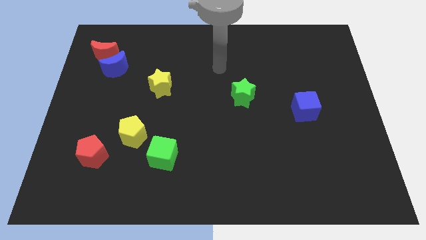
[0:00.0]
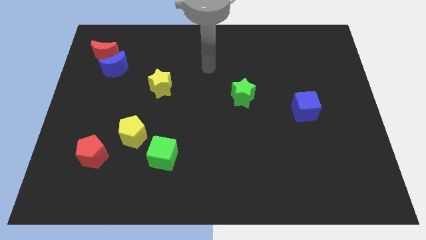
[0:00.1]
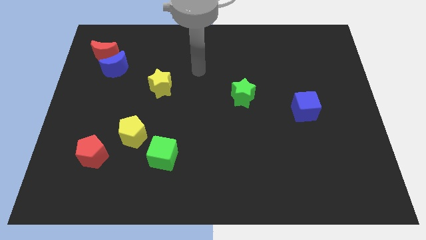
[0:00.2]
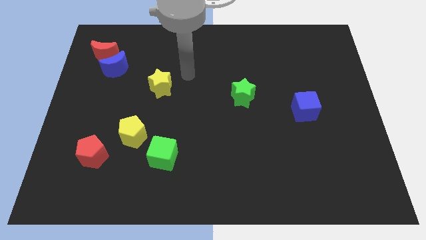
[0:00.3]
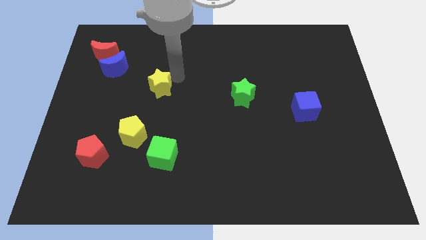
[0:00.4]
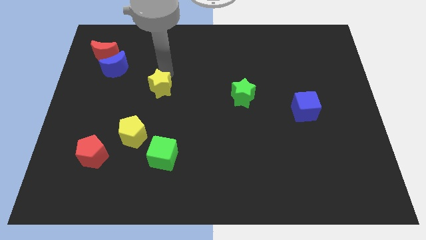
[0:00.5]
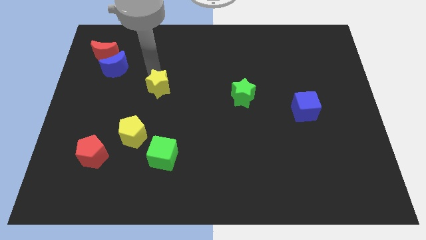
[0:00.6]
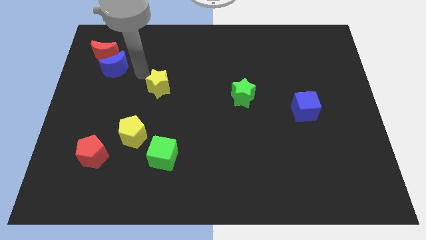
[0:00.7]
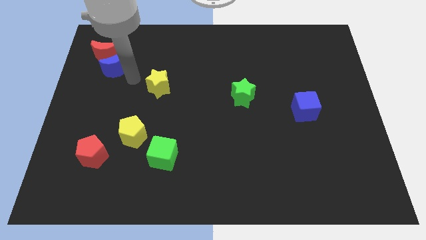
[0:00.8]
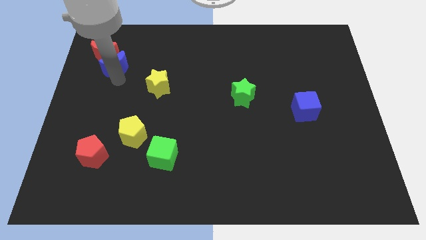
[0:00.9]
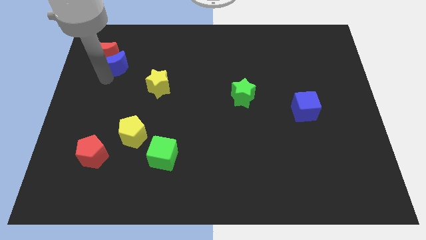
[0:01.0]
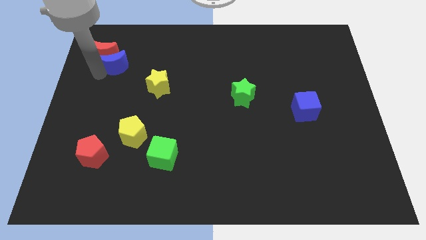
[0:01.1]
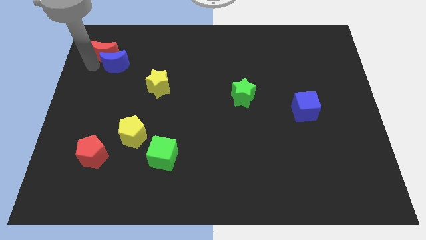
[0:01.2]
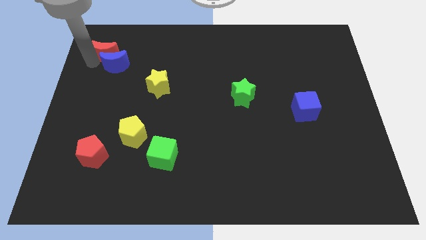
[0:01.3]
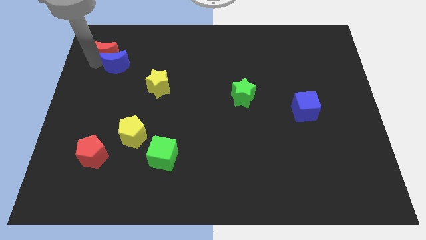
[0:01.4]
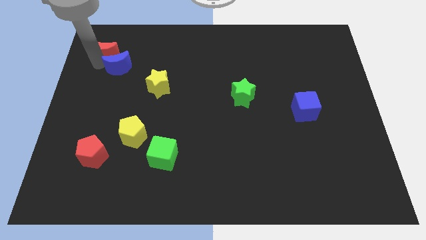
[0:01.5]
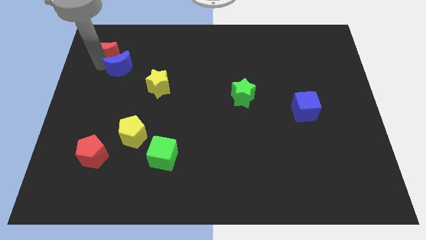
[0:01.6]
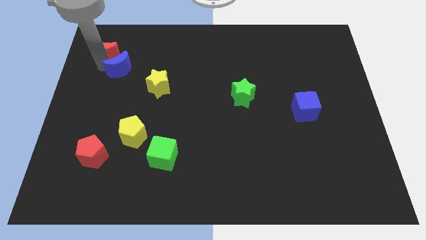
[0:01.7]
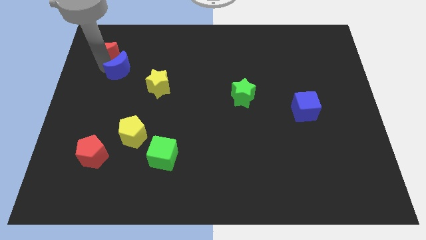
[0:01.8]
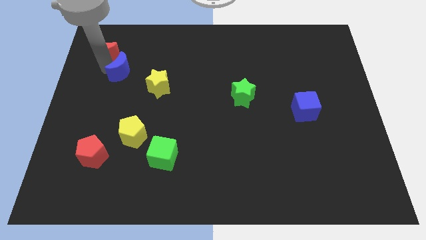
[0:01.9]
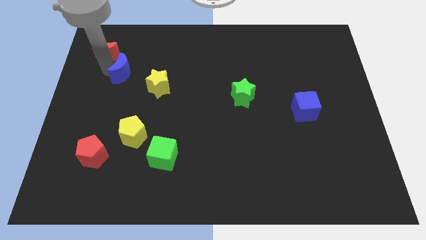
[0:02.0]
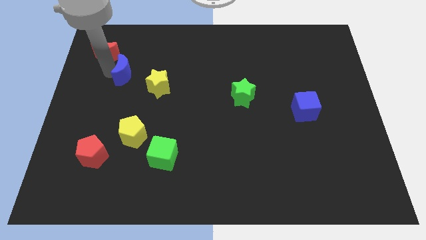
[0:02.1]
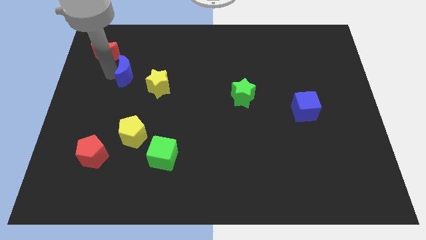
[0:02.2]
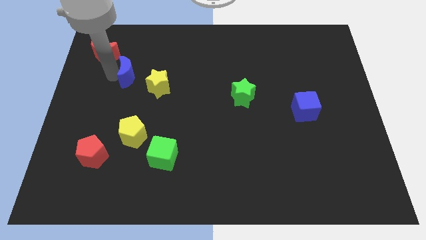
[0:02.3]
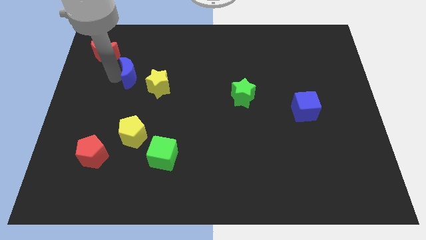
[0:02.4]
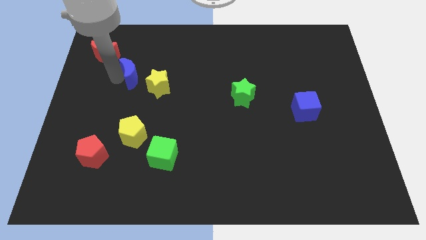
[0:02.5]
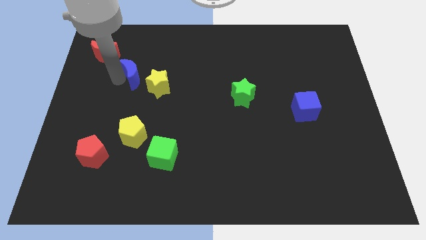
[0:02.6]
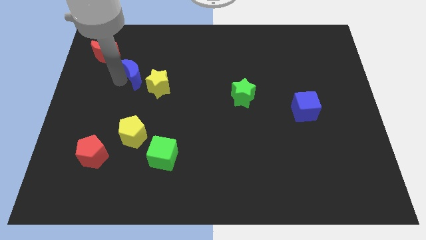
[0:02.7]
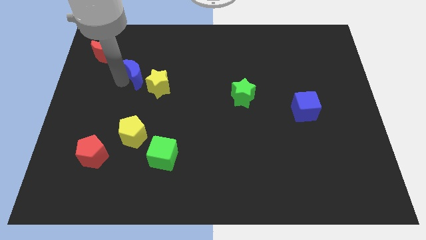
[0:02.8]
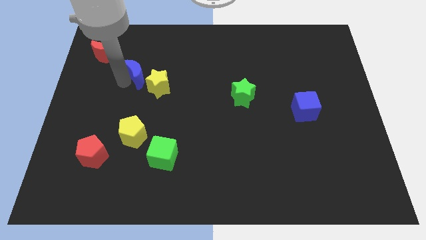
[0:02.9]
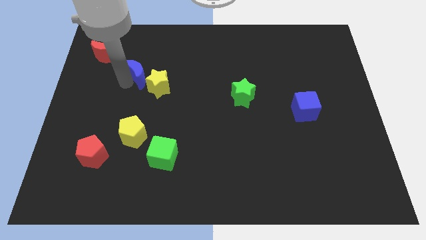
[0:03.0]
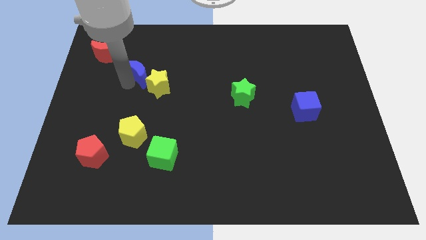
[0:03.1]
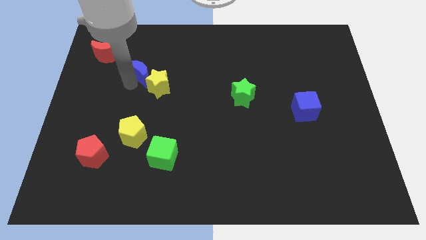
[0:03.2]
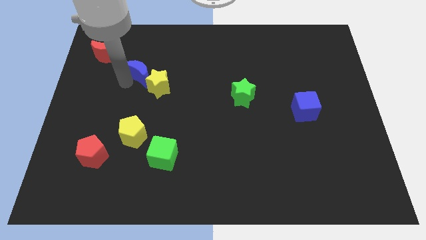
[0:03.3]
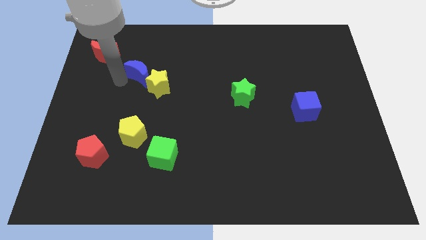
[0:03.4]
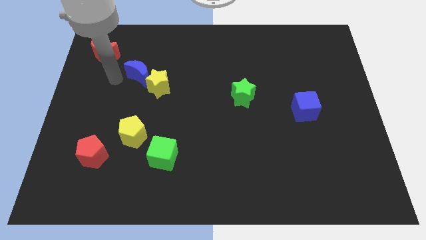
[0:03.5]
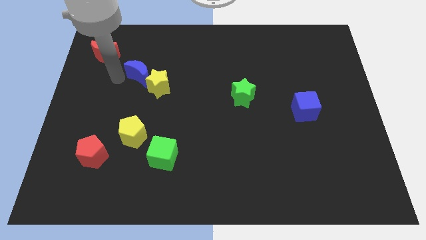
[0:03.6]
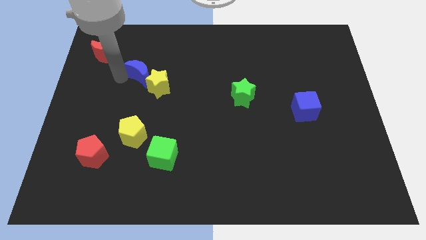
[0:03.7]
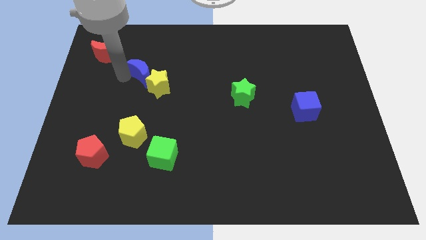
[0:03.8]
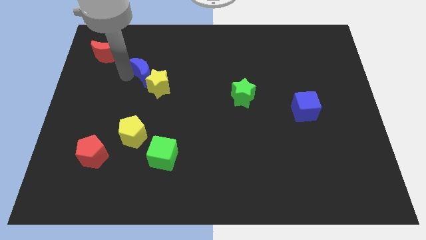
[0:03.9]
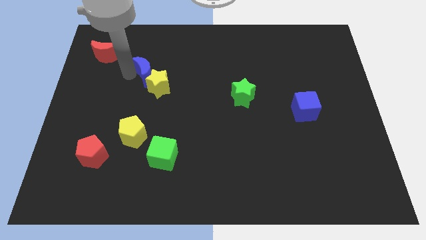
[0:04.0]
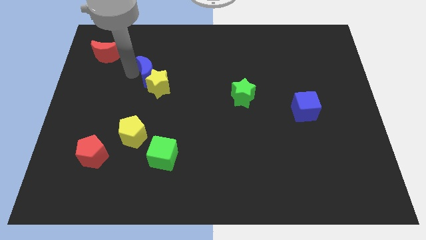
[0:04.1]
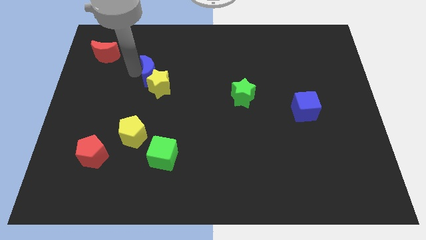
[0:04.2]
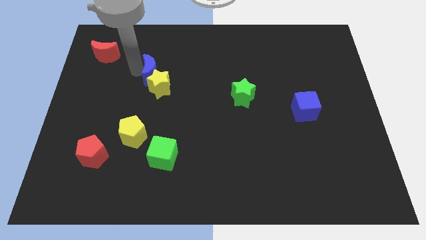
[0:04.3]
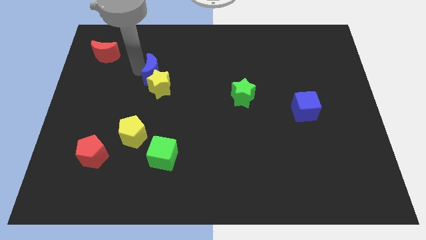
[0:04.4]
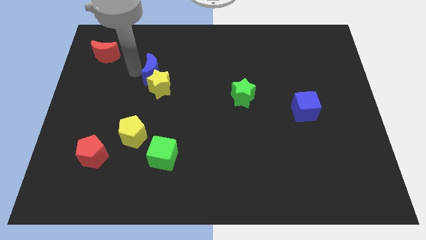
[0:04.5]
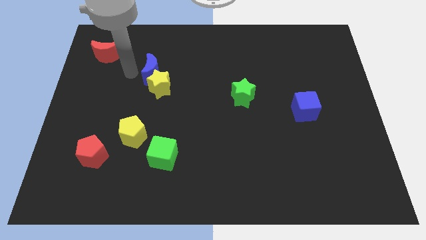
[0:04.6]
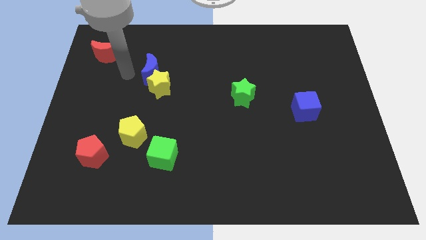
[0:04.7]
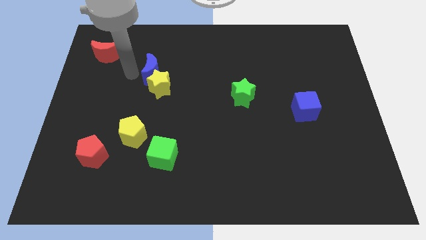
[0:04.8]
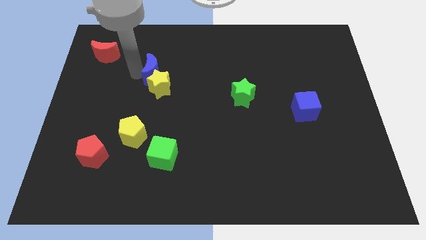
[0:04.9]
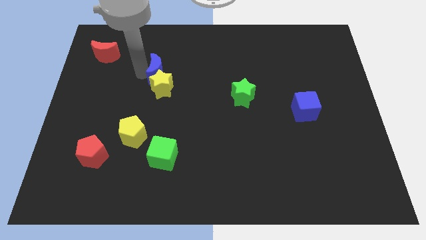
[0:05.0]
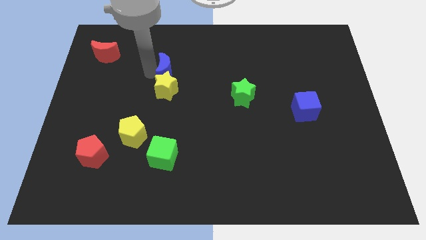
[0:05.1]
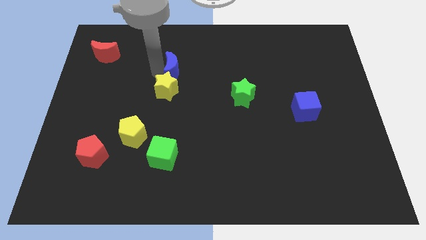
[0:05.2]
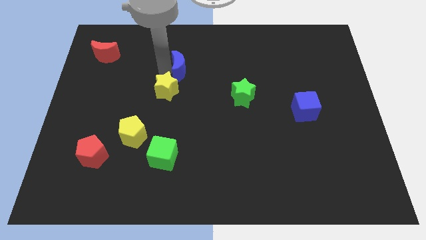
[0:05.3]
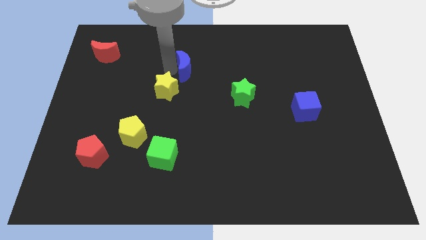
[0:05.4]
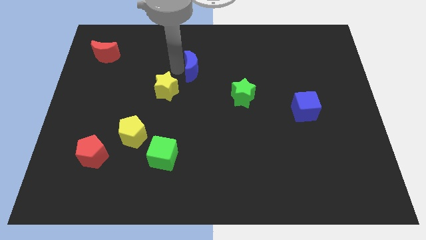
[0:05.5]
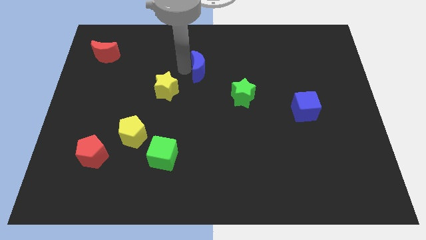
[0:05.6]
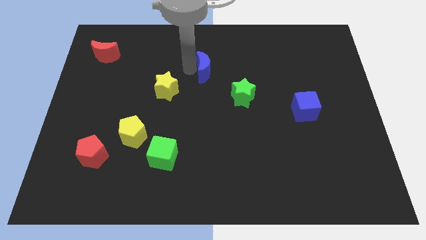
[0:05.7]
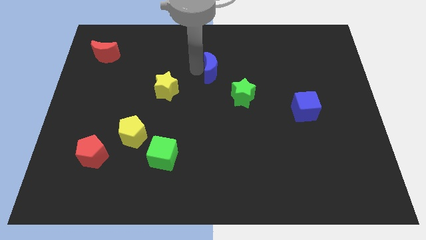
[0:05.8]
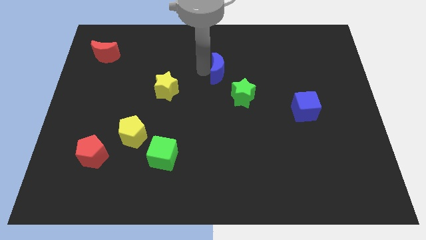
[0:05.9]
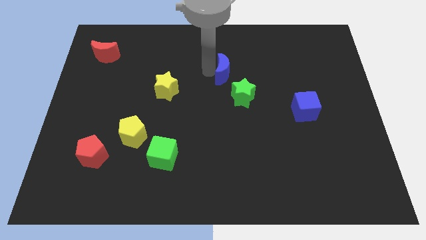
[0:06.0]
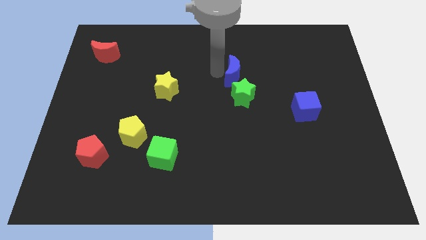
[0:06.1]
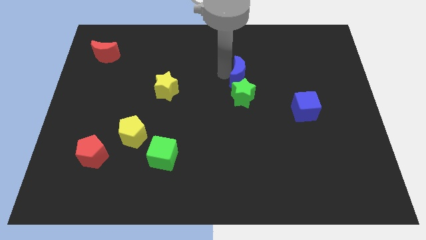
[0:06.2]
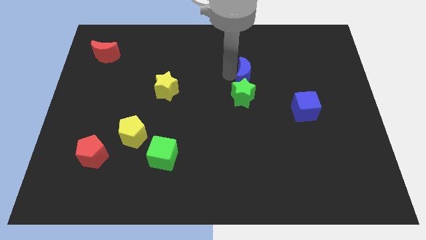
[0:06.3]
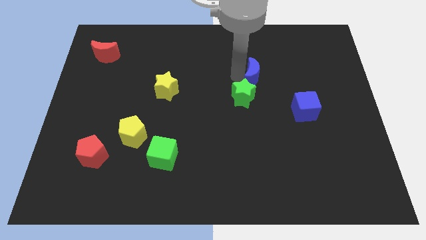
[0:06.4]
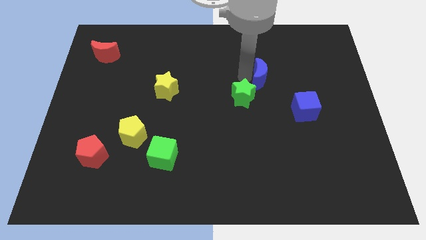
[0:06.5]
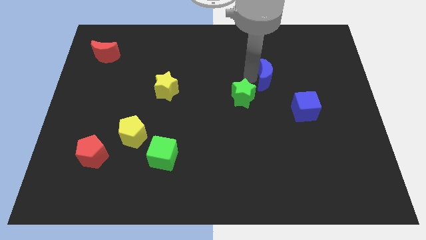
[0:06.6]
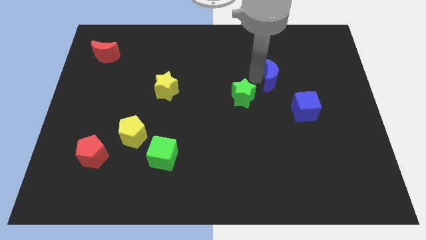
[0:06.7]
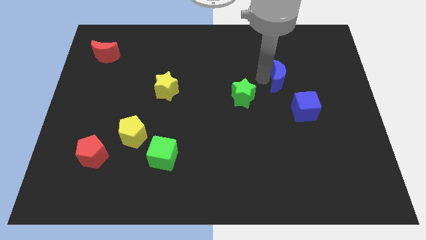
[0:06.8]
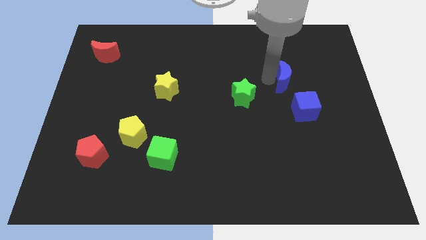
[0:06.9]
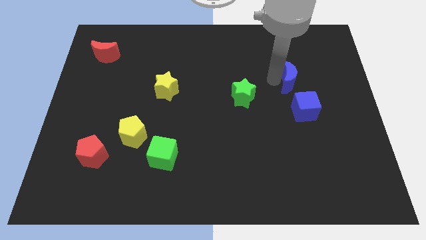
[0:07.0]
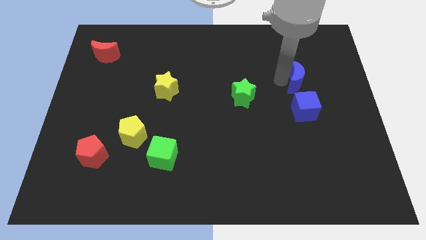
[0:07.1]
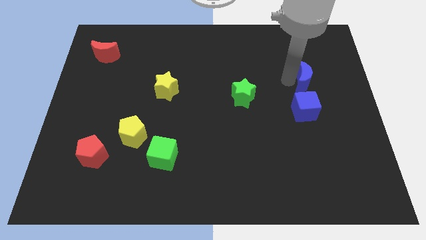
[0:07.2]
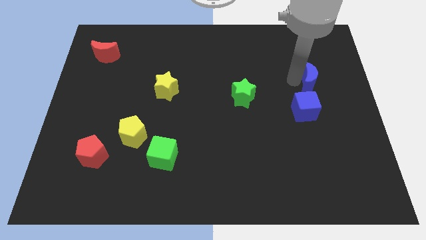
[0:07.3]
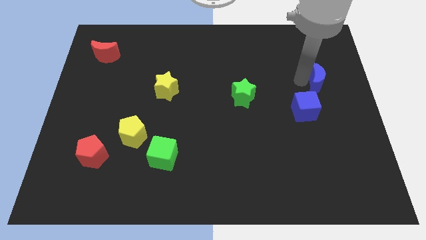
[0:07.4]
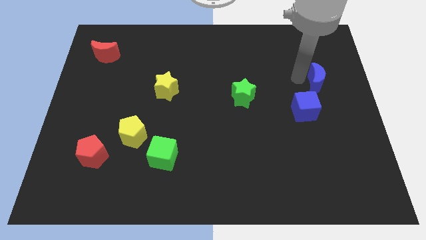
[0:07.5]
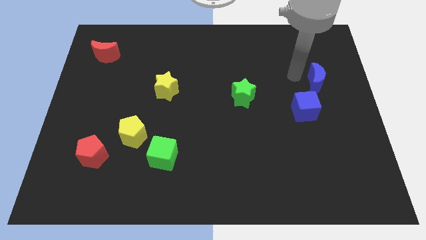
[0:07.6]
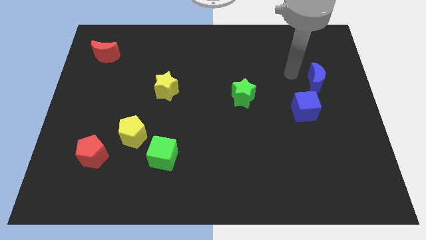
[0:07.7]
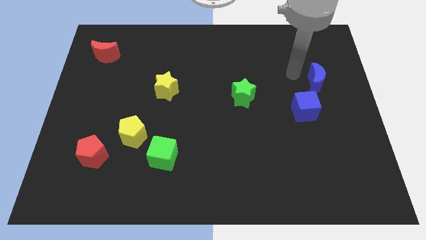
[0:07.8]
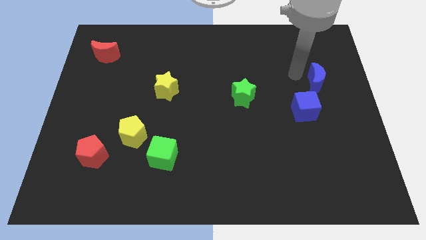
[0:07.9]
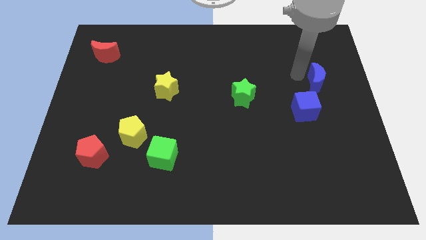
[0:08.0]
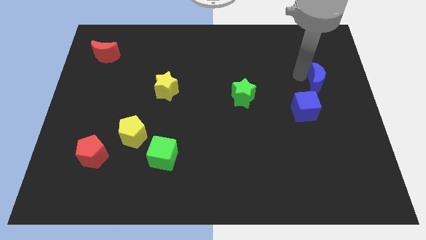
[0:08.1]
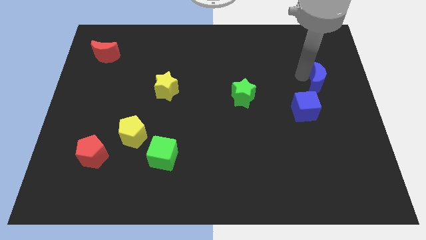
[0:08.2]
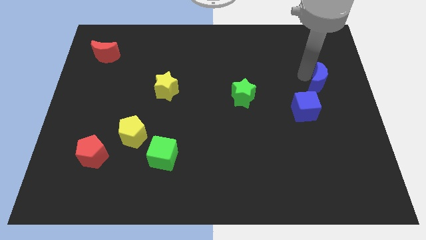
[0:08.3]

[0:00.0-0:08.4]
push the blue moon to the center right
